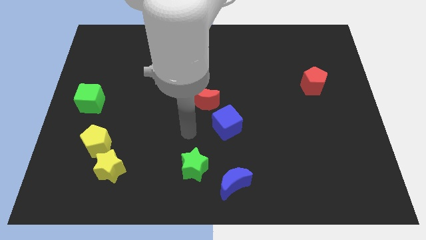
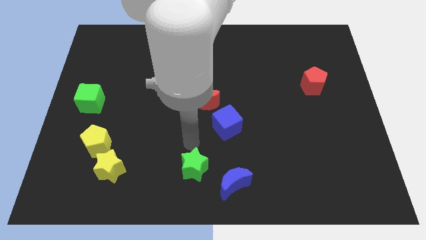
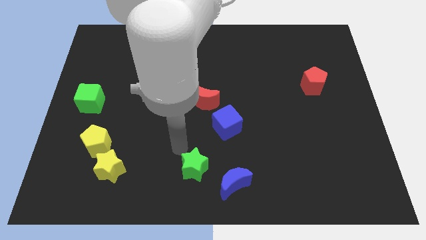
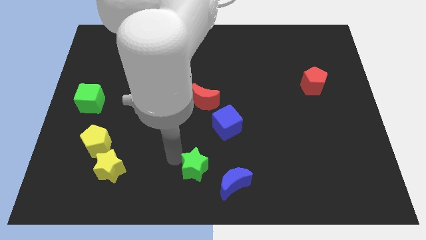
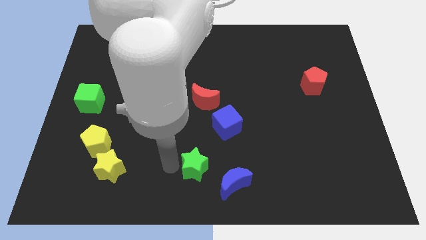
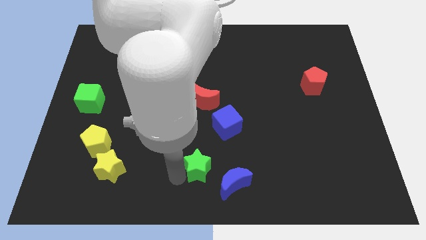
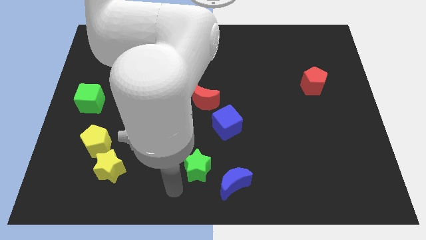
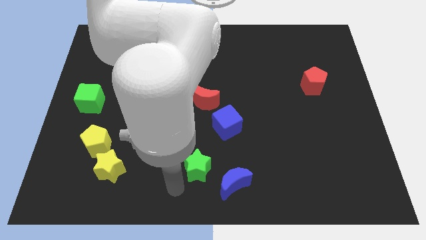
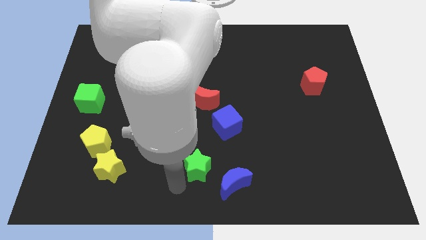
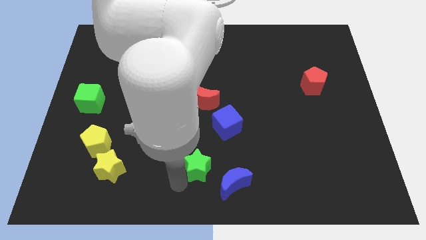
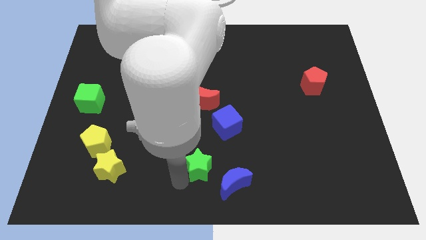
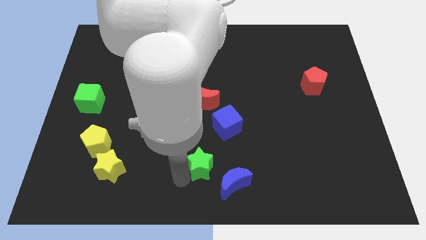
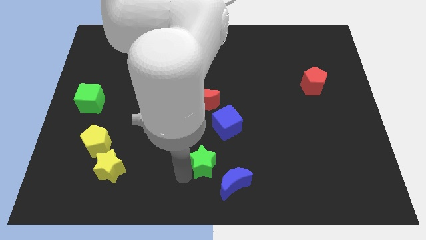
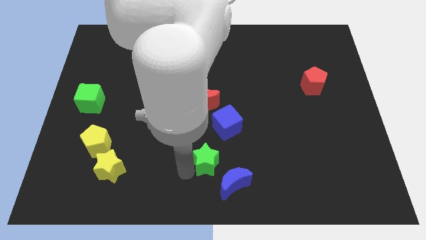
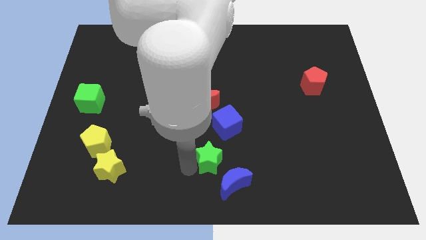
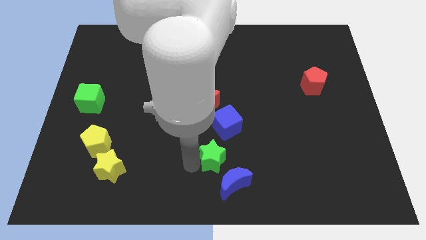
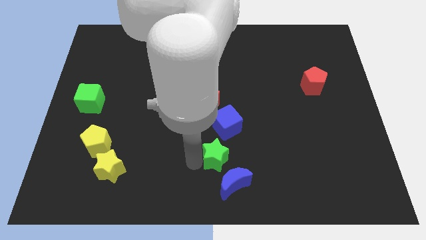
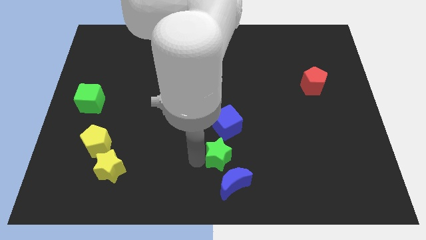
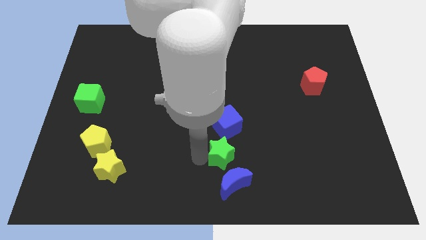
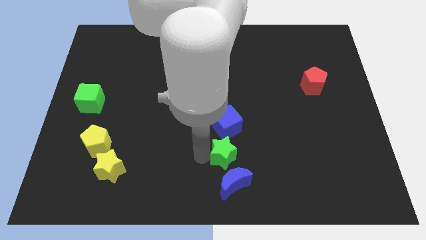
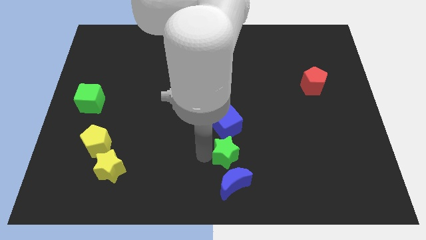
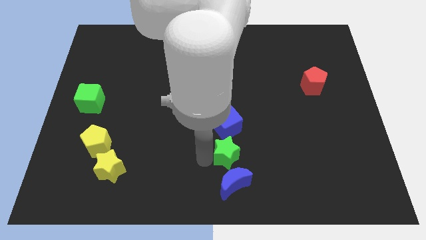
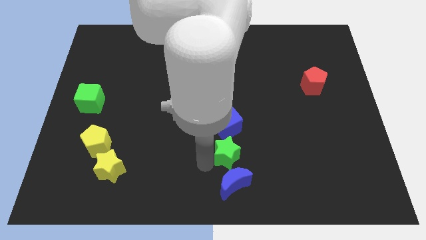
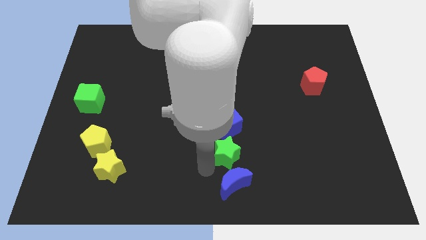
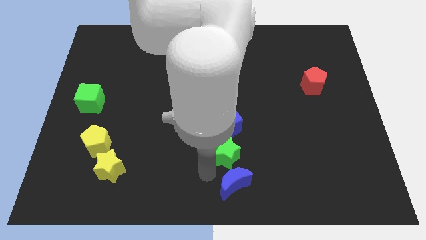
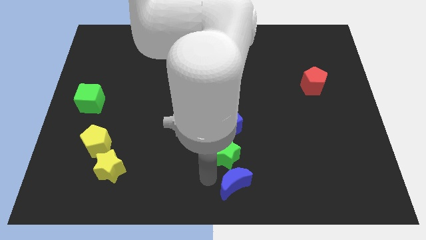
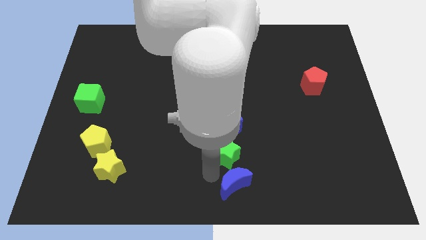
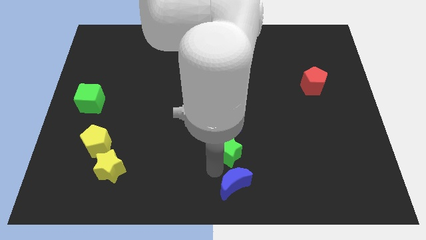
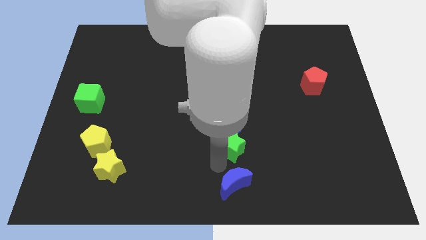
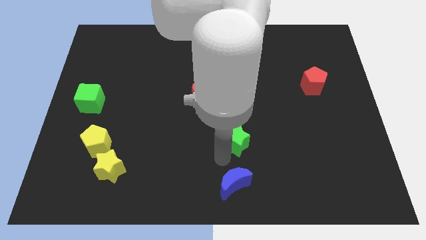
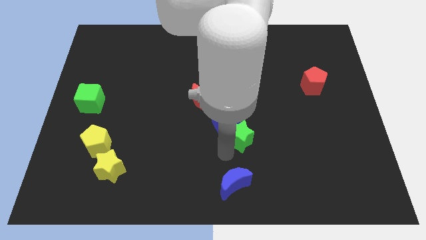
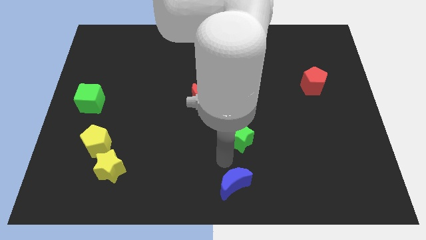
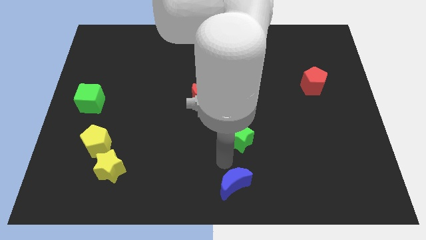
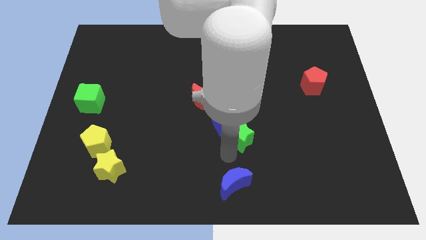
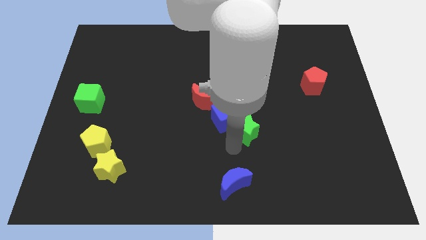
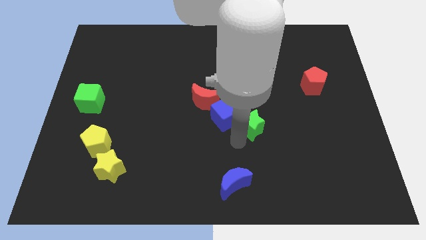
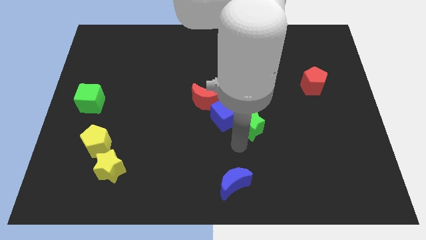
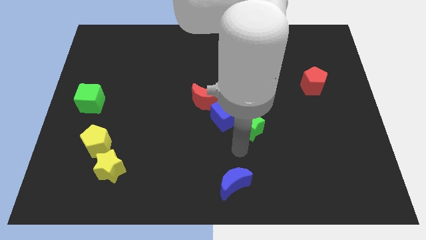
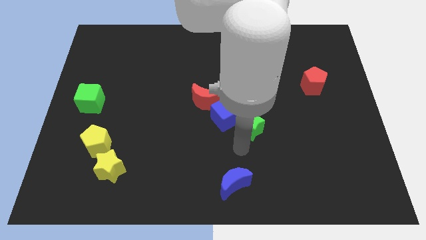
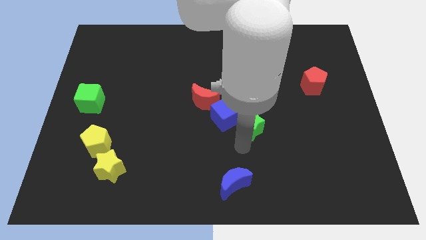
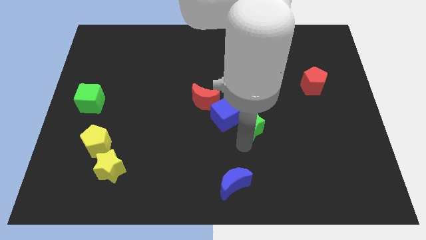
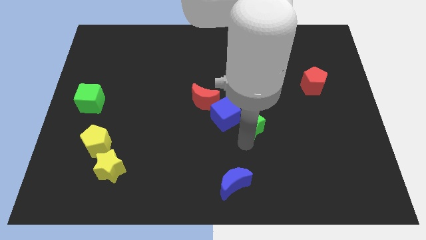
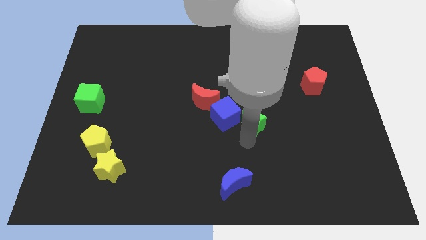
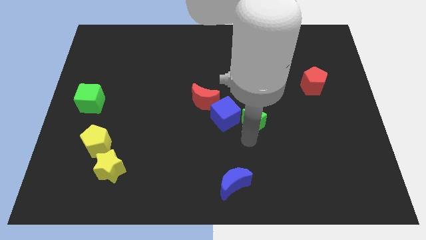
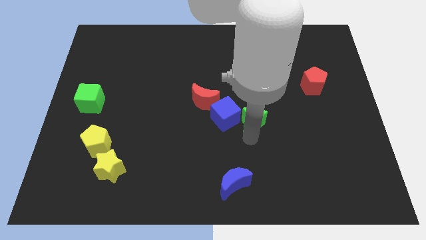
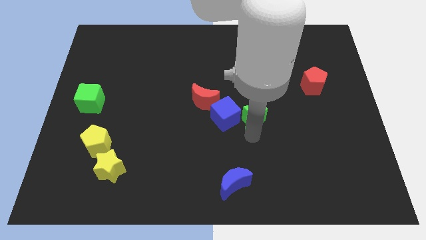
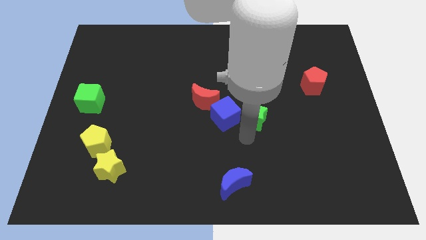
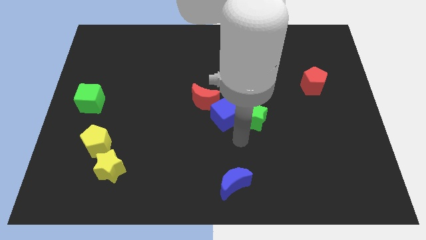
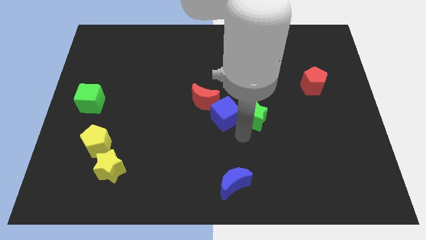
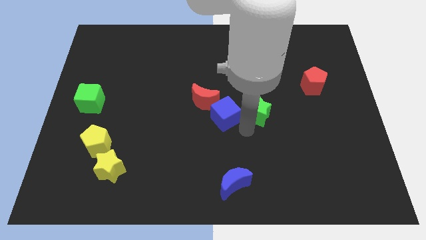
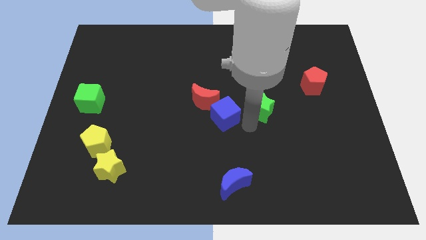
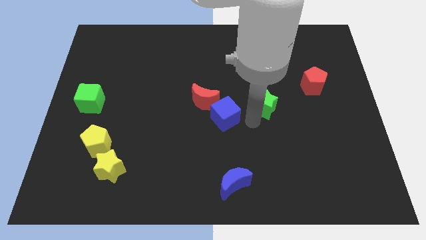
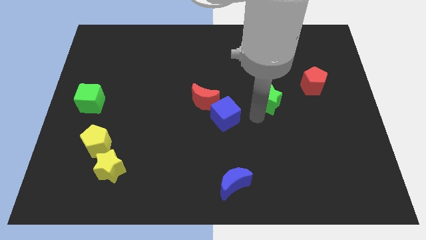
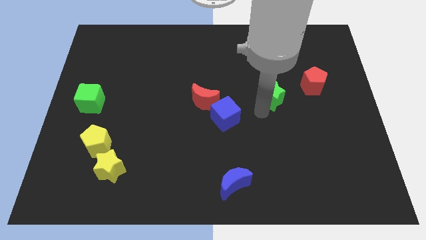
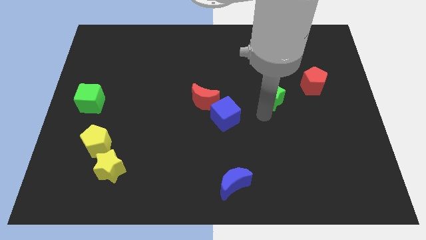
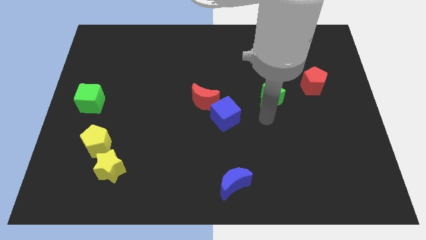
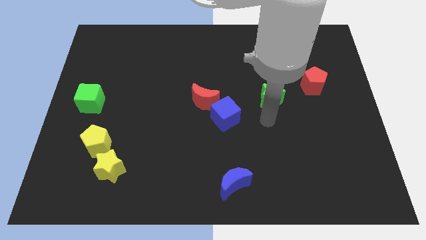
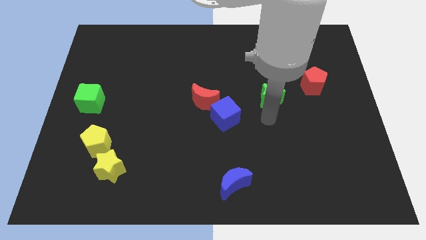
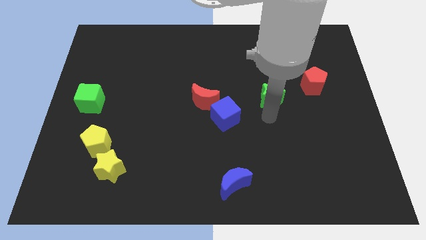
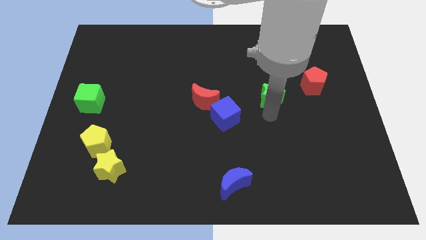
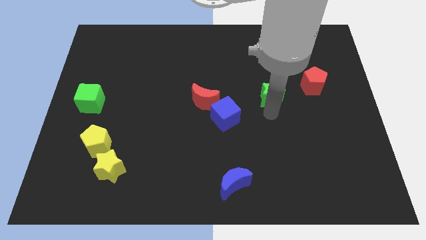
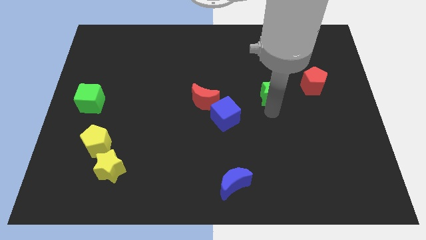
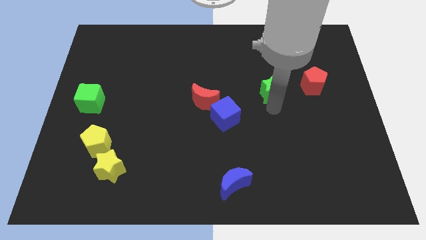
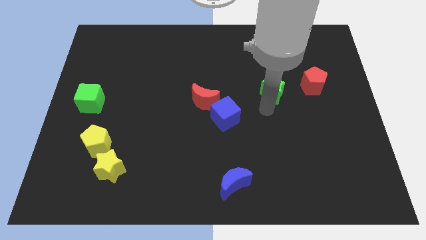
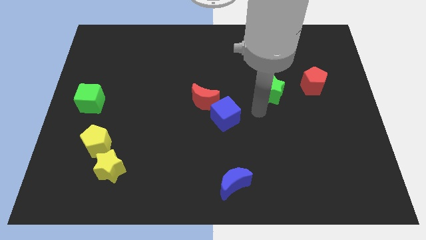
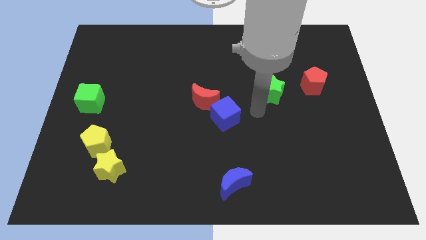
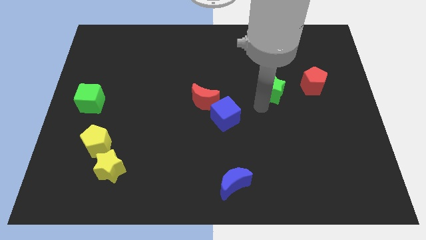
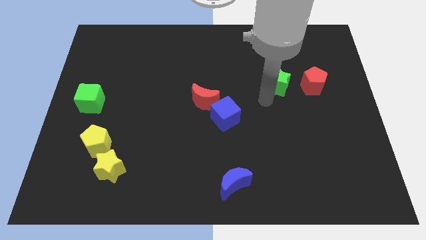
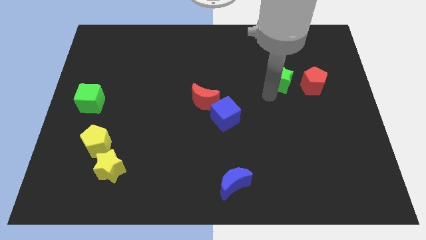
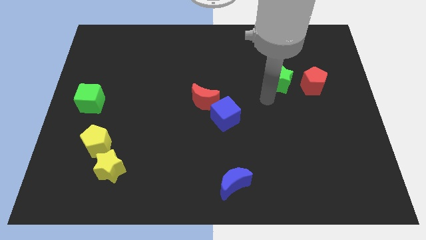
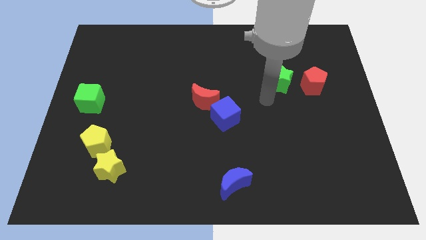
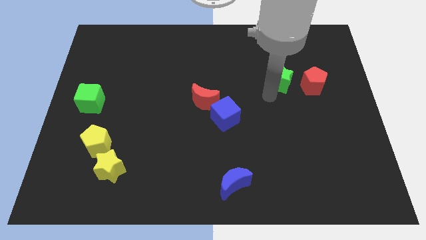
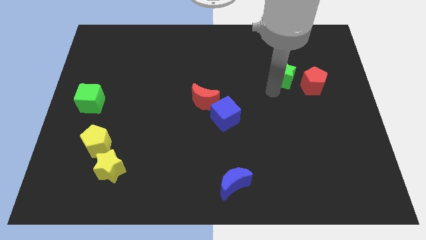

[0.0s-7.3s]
move the green star diagonally up and to the left of the red pentagon
